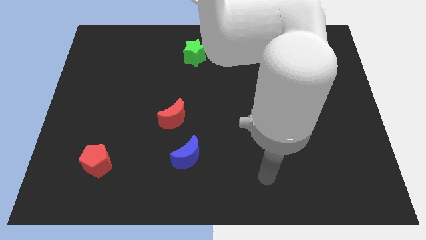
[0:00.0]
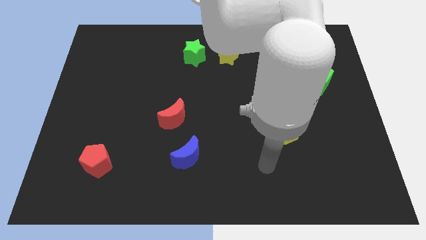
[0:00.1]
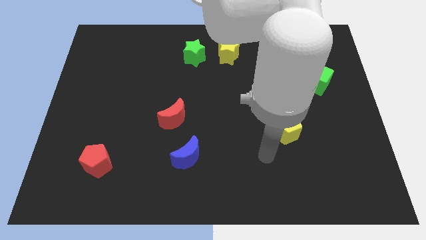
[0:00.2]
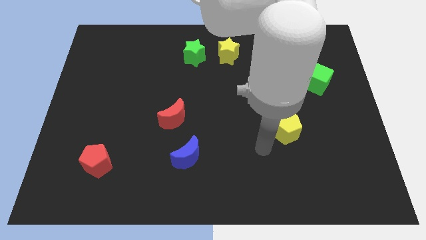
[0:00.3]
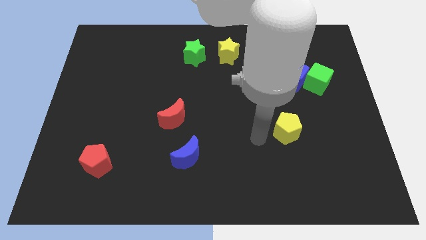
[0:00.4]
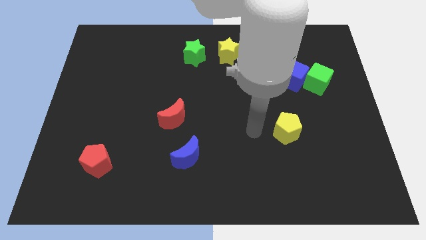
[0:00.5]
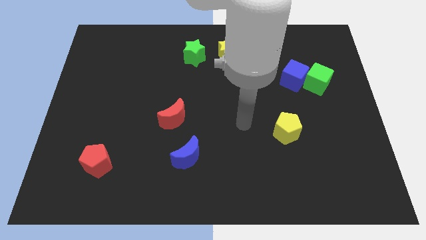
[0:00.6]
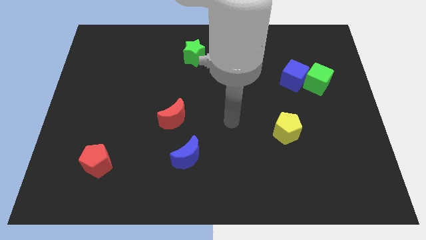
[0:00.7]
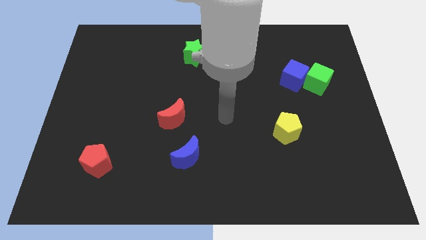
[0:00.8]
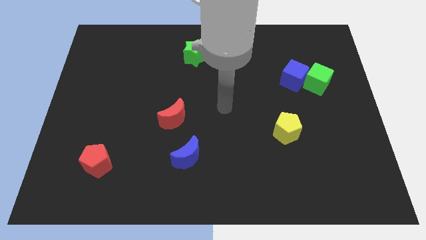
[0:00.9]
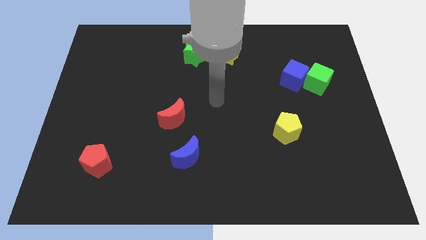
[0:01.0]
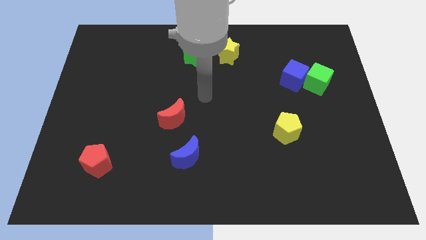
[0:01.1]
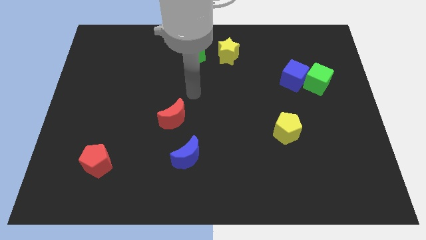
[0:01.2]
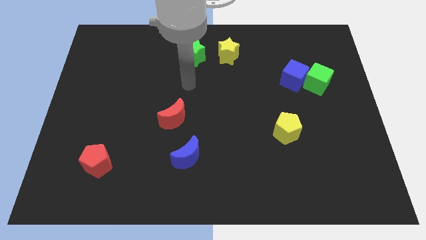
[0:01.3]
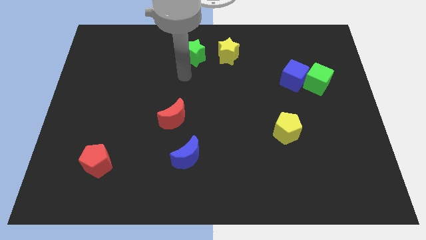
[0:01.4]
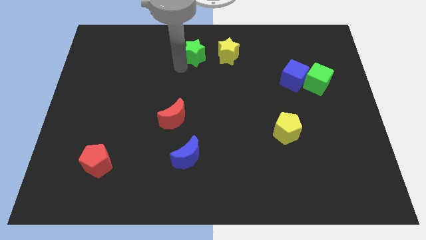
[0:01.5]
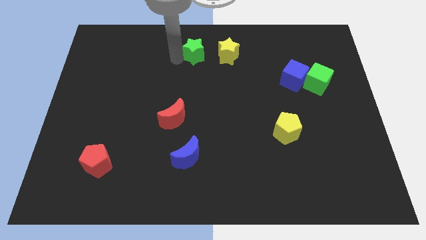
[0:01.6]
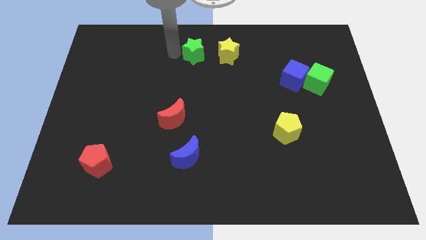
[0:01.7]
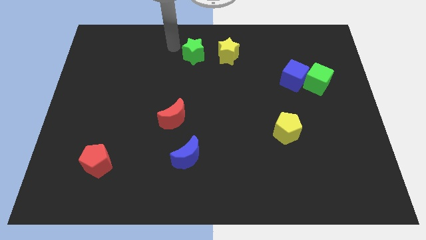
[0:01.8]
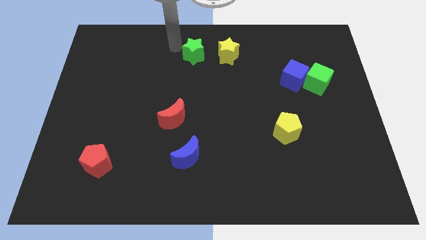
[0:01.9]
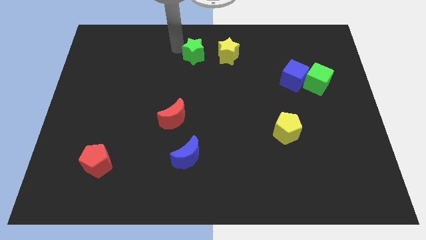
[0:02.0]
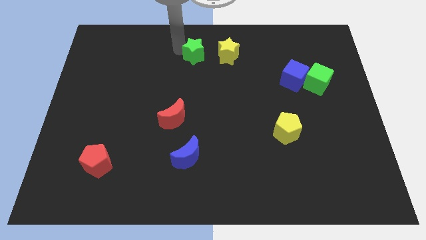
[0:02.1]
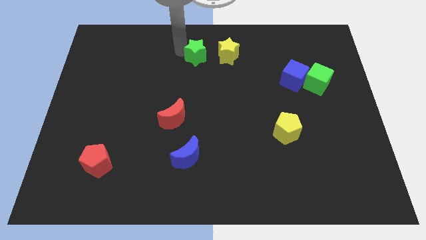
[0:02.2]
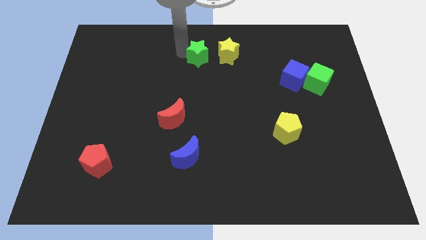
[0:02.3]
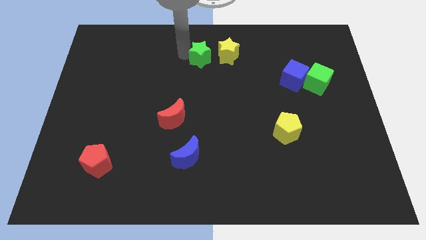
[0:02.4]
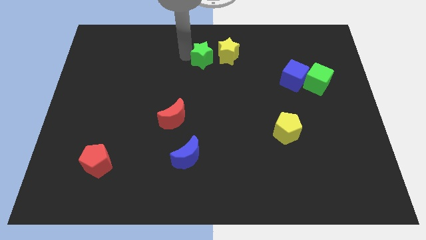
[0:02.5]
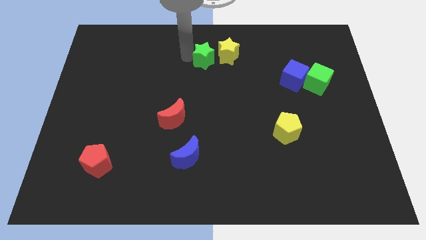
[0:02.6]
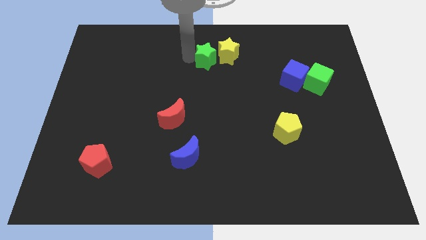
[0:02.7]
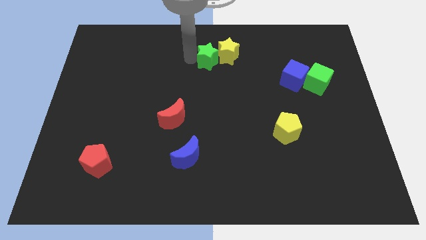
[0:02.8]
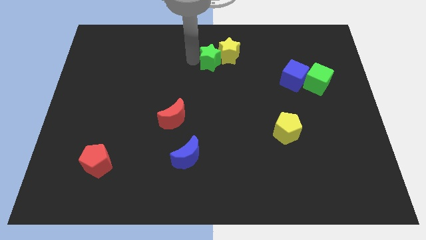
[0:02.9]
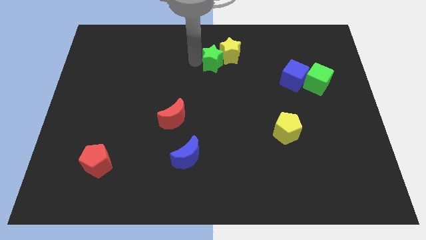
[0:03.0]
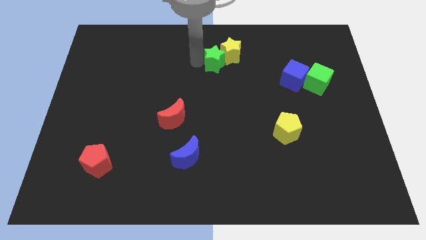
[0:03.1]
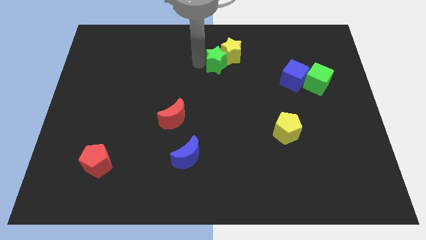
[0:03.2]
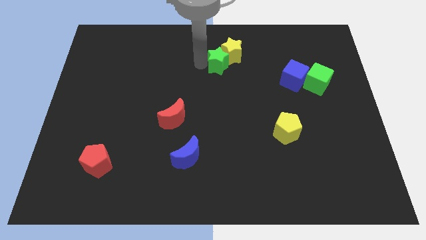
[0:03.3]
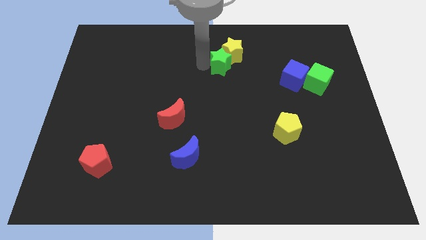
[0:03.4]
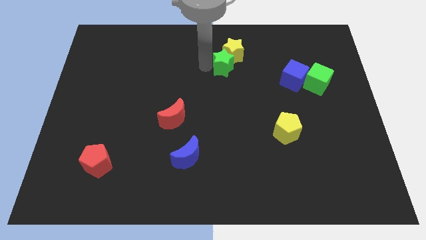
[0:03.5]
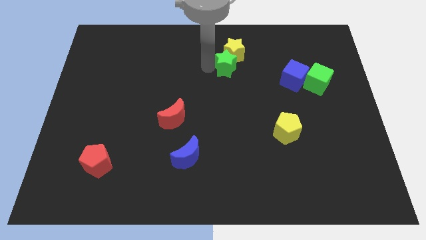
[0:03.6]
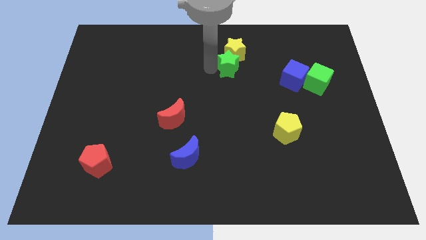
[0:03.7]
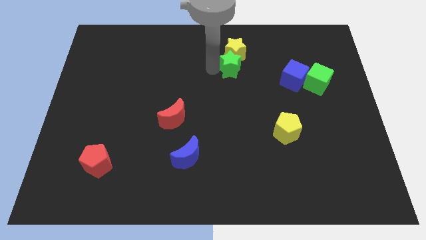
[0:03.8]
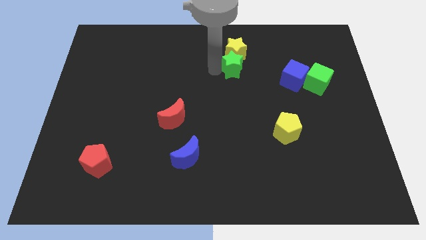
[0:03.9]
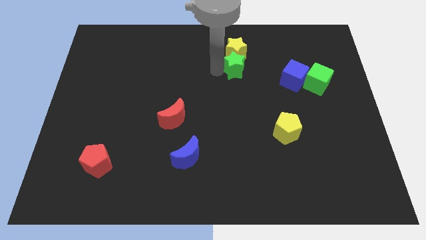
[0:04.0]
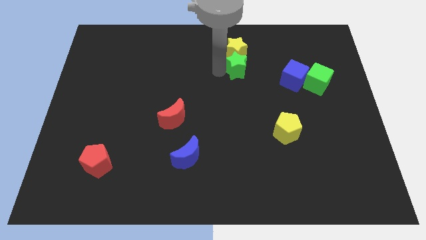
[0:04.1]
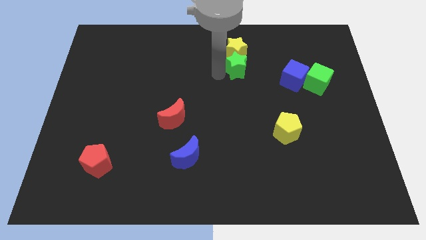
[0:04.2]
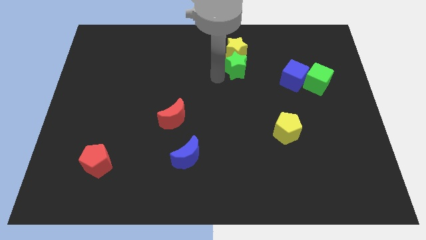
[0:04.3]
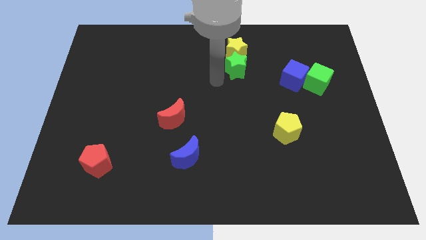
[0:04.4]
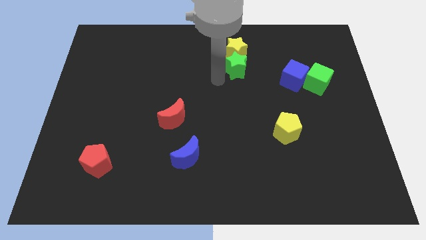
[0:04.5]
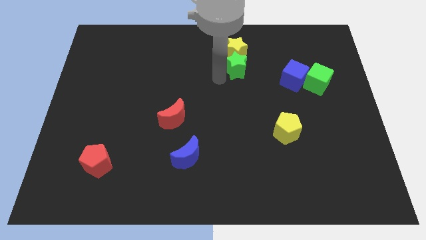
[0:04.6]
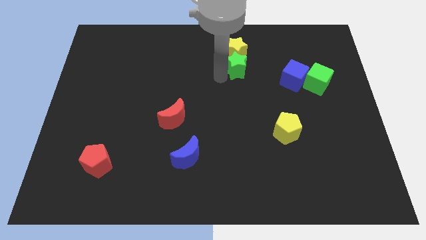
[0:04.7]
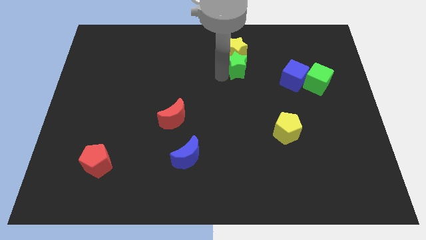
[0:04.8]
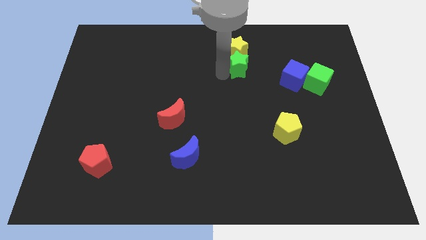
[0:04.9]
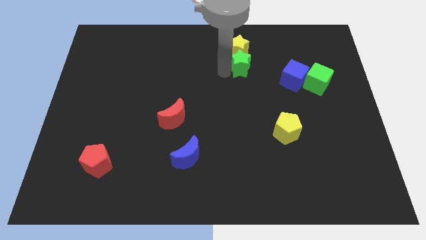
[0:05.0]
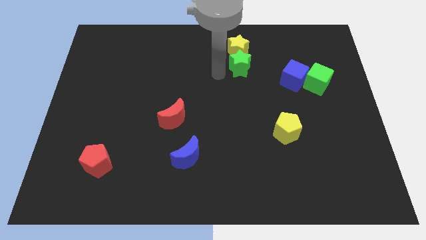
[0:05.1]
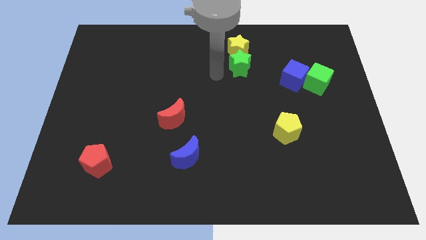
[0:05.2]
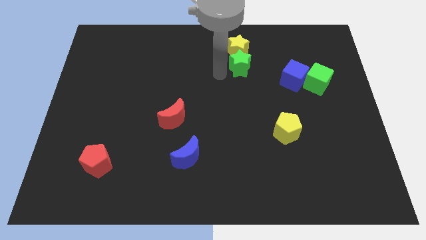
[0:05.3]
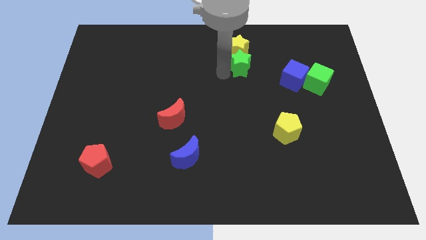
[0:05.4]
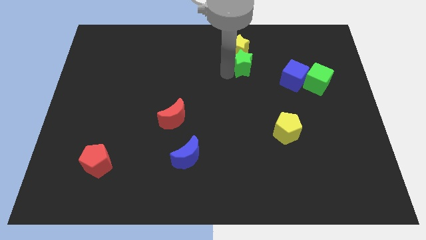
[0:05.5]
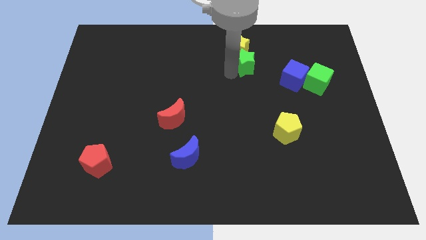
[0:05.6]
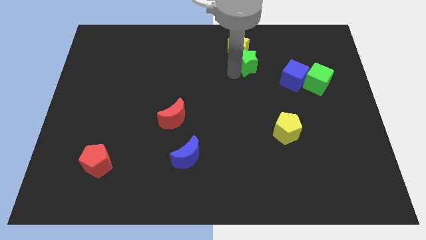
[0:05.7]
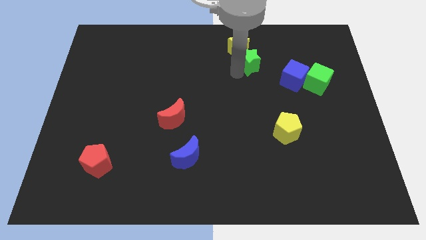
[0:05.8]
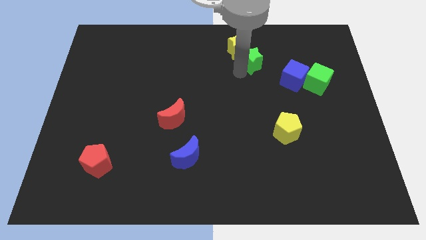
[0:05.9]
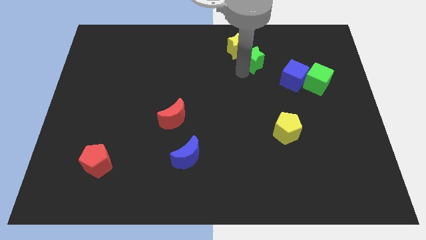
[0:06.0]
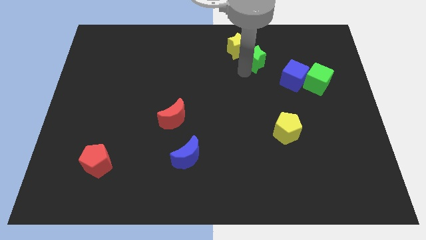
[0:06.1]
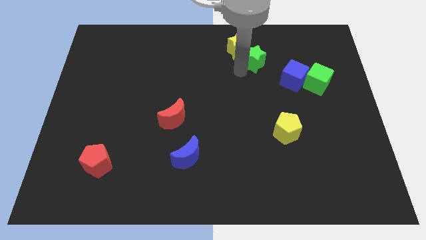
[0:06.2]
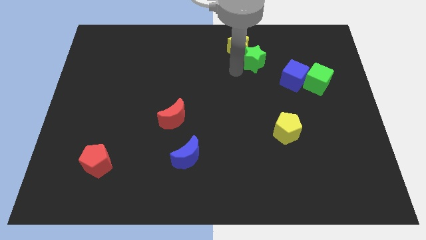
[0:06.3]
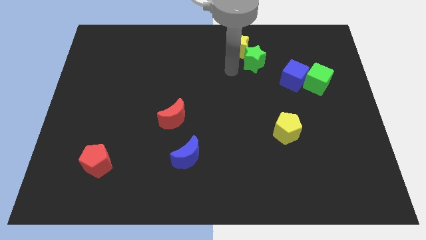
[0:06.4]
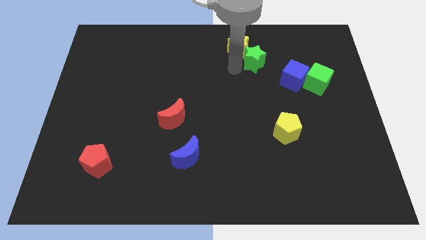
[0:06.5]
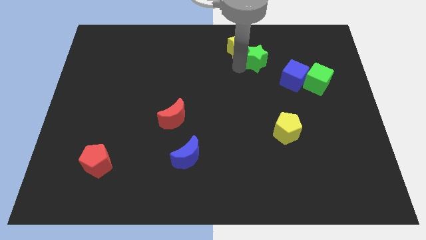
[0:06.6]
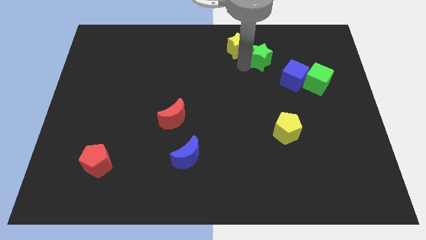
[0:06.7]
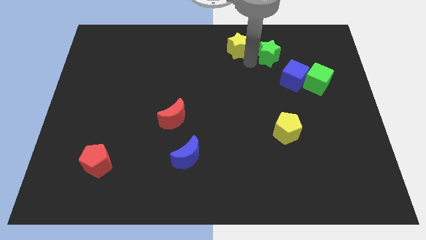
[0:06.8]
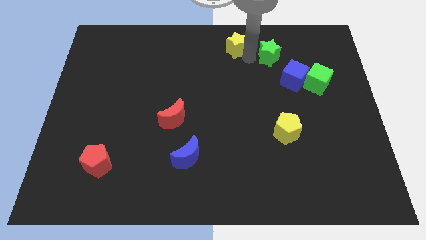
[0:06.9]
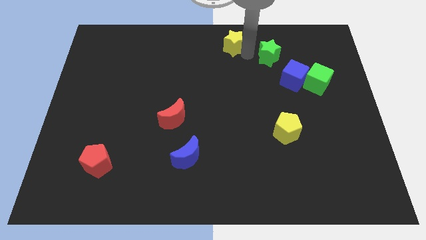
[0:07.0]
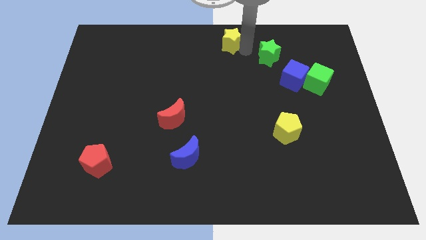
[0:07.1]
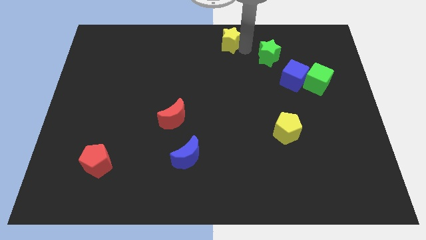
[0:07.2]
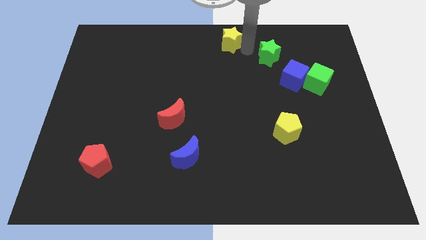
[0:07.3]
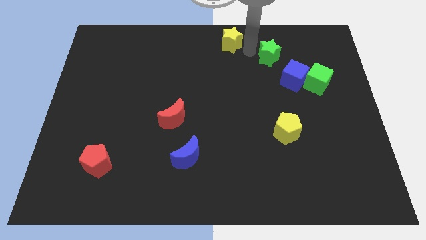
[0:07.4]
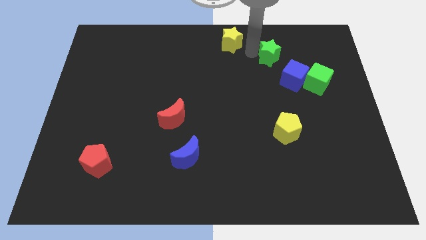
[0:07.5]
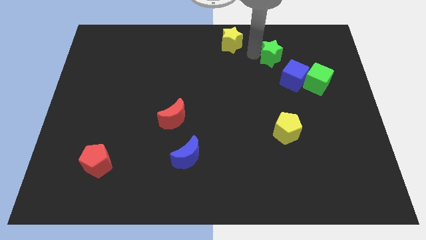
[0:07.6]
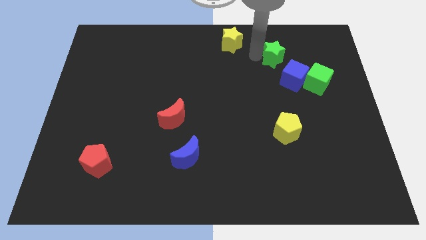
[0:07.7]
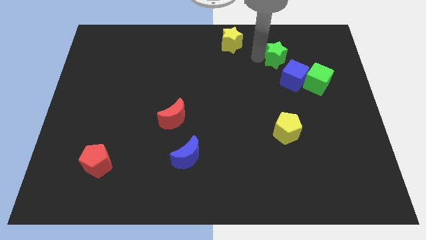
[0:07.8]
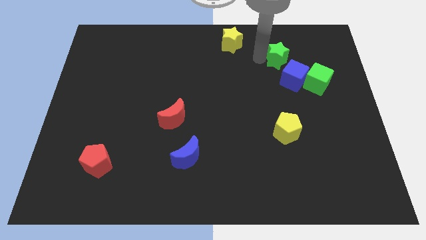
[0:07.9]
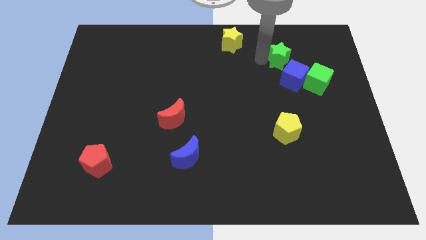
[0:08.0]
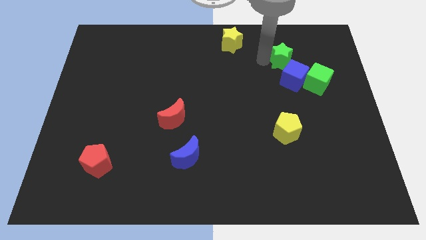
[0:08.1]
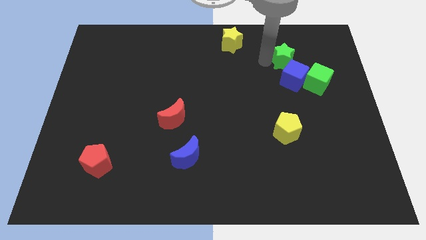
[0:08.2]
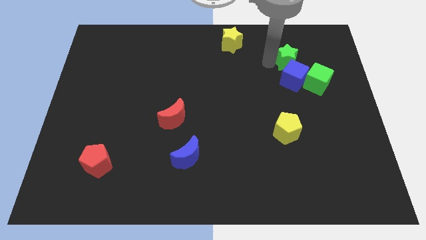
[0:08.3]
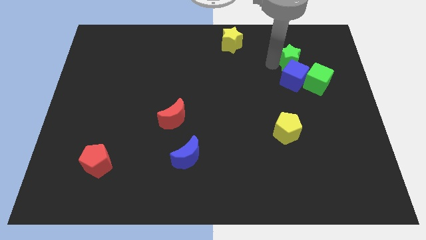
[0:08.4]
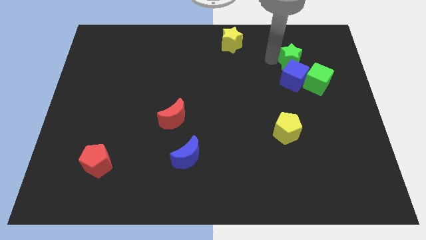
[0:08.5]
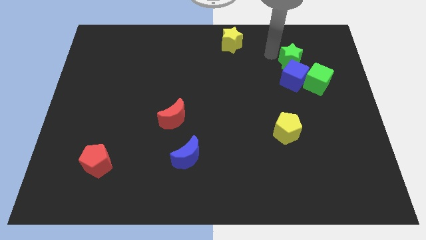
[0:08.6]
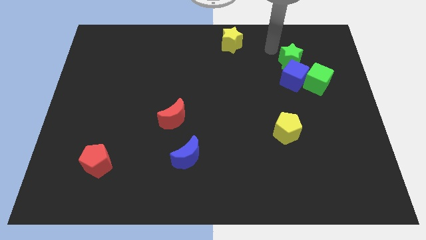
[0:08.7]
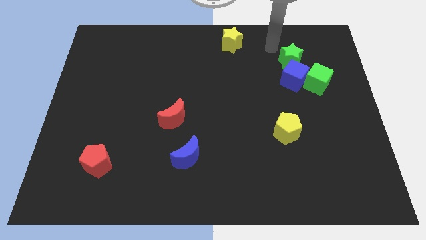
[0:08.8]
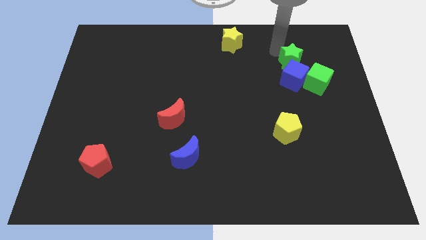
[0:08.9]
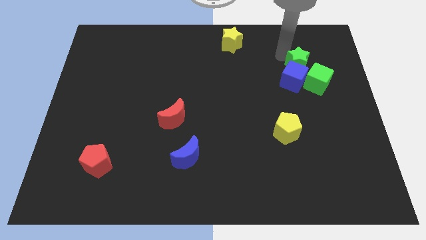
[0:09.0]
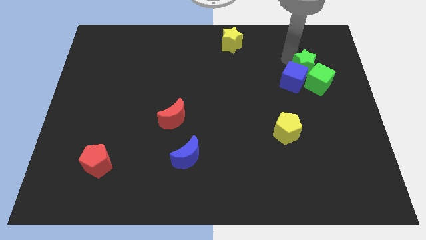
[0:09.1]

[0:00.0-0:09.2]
push the green star next to the green cube
